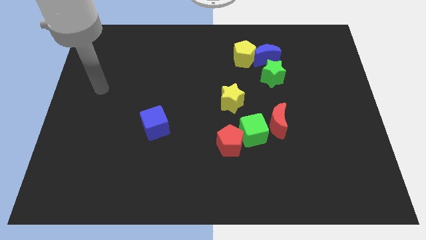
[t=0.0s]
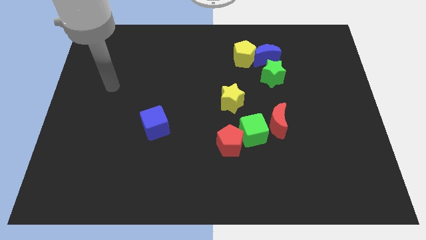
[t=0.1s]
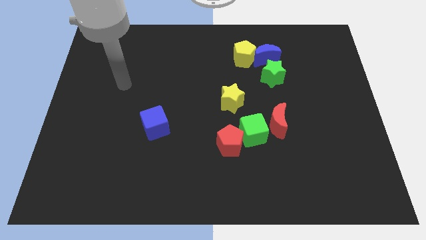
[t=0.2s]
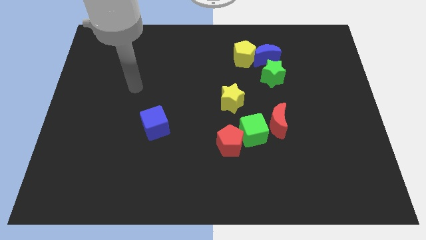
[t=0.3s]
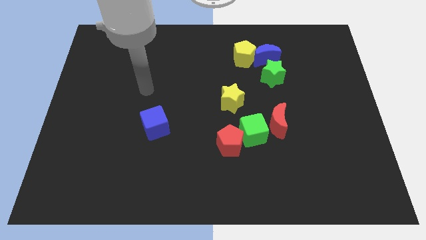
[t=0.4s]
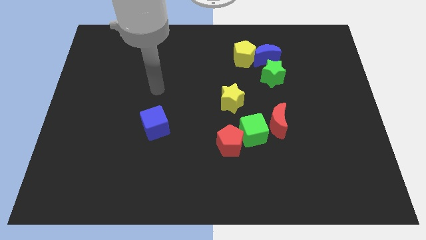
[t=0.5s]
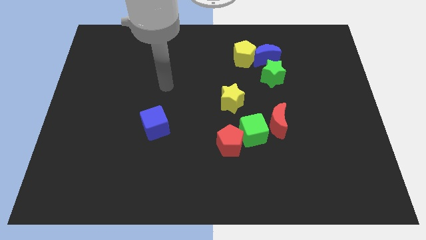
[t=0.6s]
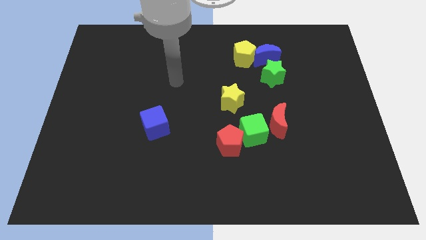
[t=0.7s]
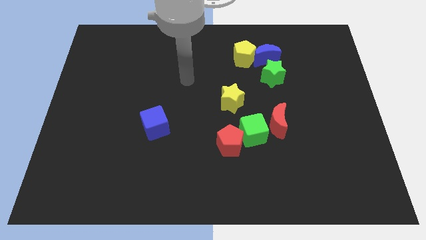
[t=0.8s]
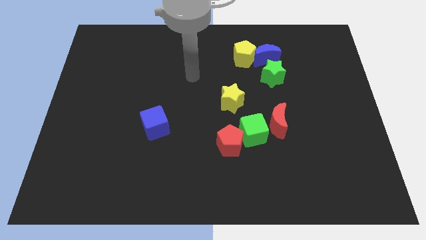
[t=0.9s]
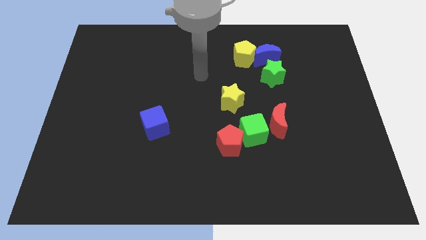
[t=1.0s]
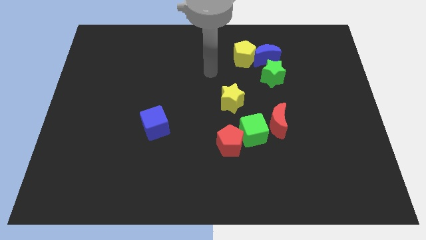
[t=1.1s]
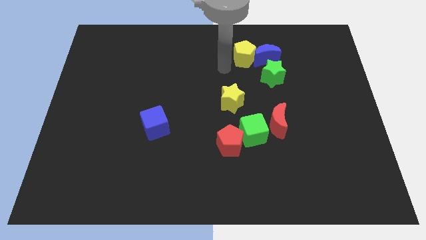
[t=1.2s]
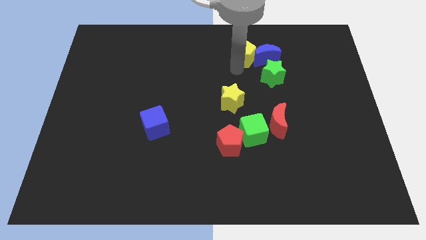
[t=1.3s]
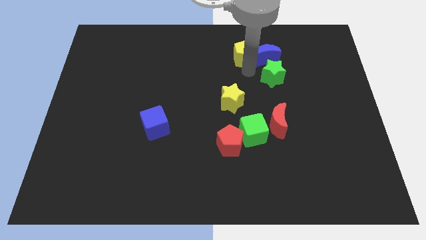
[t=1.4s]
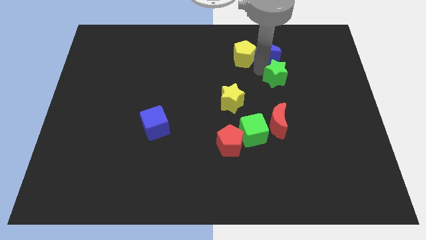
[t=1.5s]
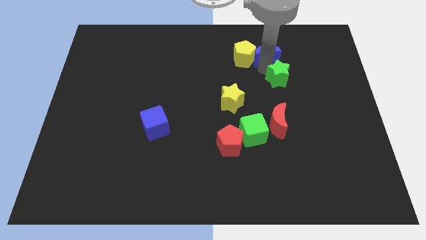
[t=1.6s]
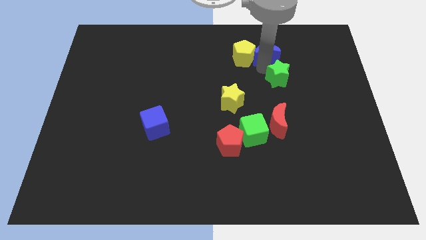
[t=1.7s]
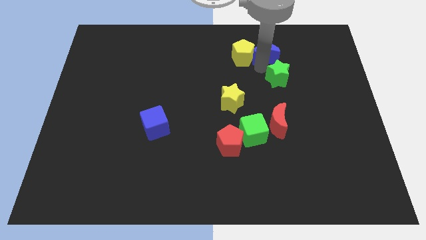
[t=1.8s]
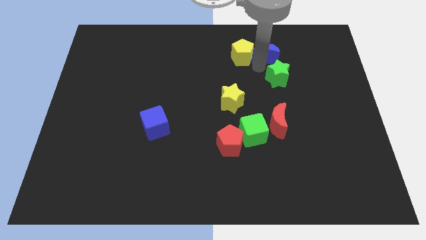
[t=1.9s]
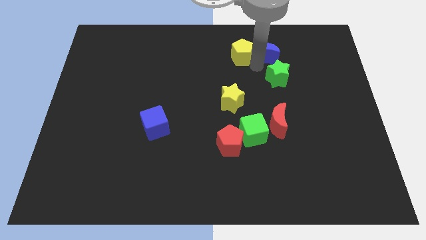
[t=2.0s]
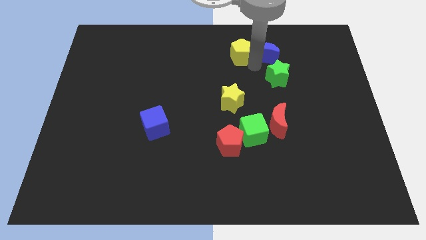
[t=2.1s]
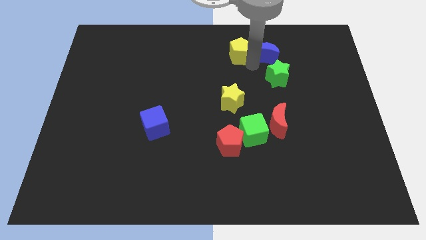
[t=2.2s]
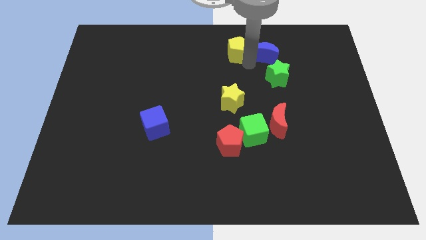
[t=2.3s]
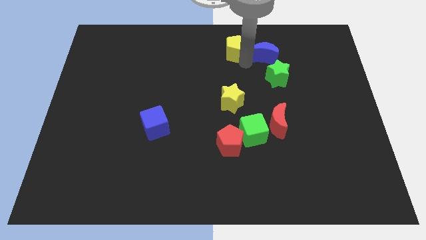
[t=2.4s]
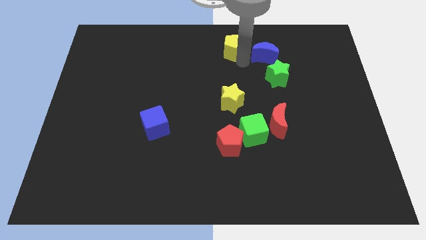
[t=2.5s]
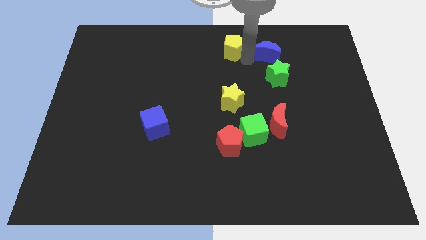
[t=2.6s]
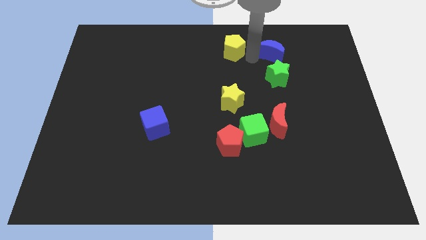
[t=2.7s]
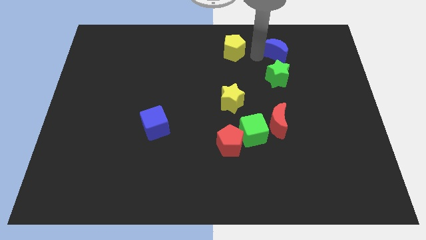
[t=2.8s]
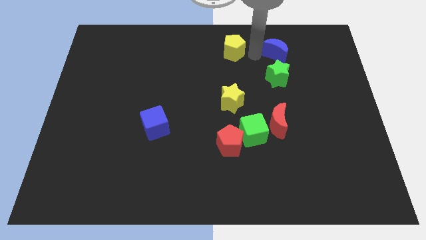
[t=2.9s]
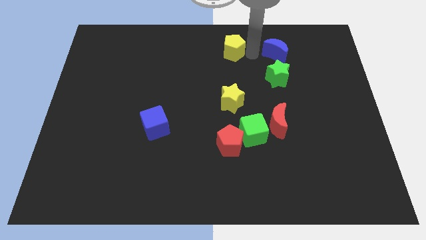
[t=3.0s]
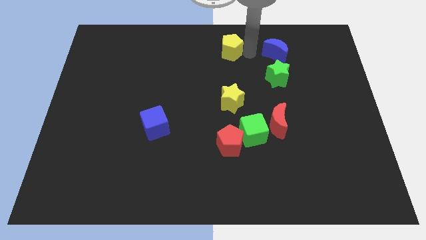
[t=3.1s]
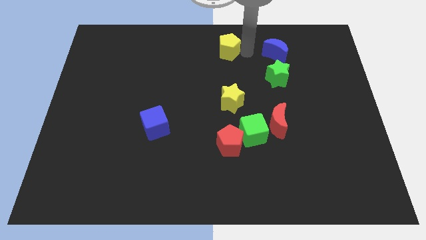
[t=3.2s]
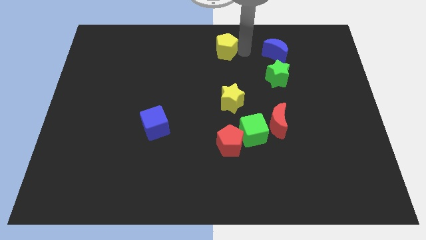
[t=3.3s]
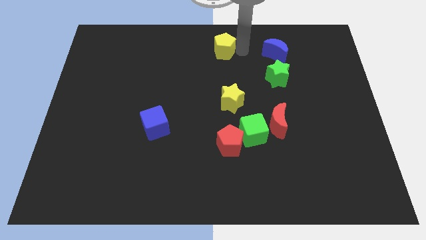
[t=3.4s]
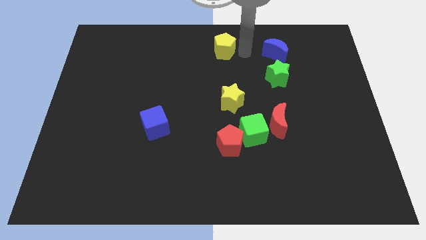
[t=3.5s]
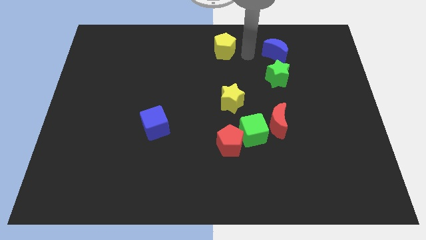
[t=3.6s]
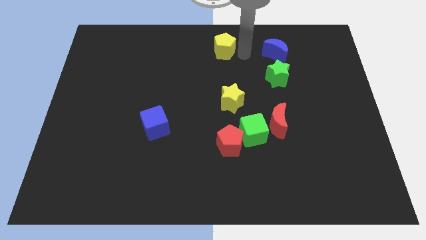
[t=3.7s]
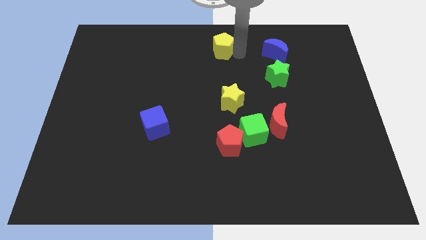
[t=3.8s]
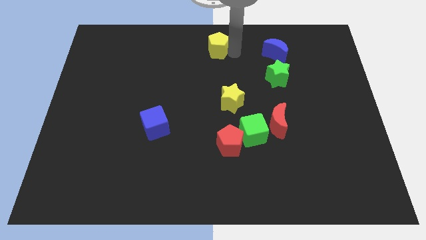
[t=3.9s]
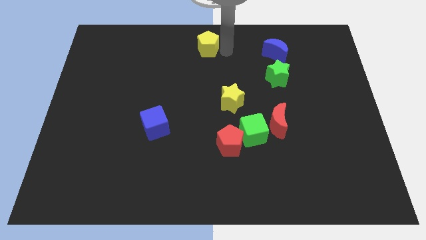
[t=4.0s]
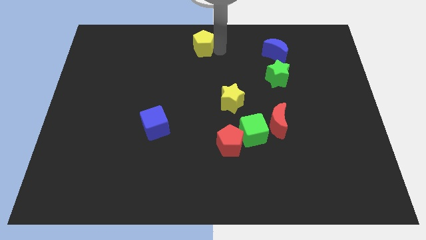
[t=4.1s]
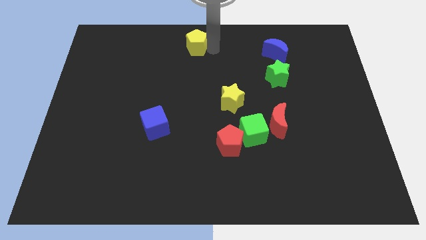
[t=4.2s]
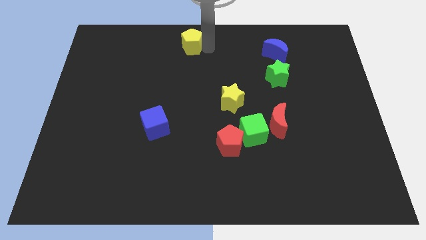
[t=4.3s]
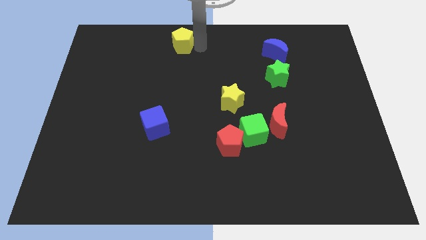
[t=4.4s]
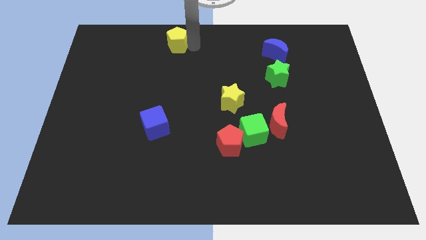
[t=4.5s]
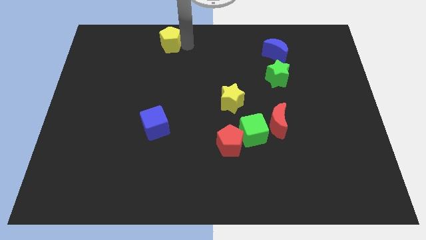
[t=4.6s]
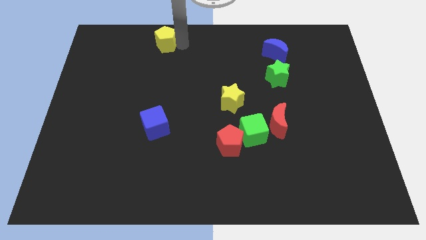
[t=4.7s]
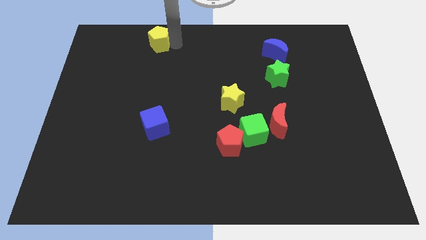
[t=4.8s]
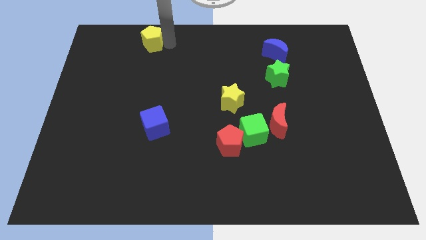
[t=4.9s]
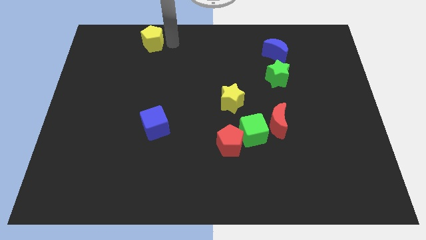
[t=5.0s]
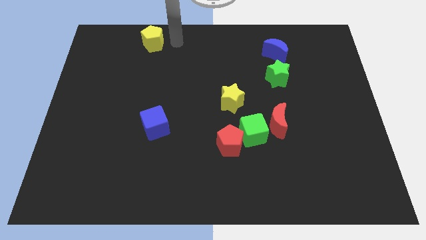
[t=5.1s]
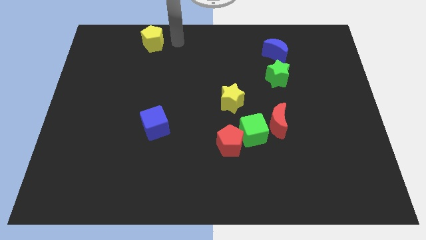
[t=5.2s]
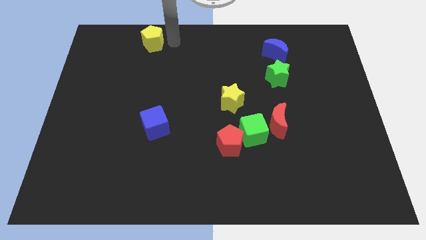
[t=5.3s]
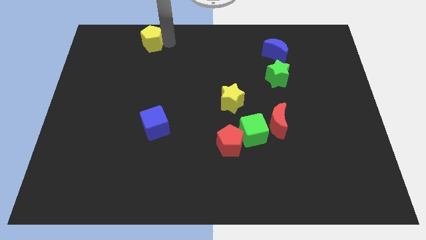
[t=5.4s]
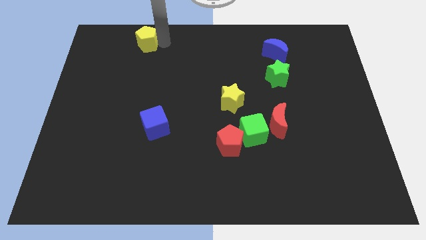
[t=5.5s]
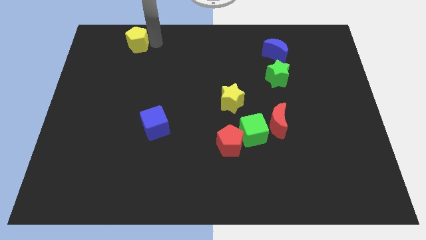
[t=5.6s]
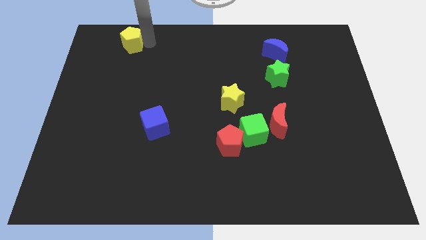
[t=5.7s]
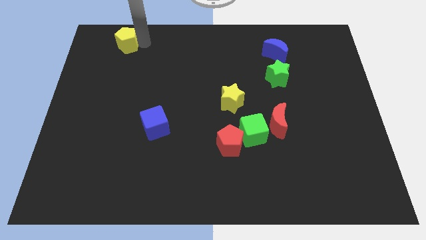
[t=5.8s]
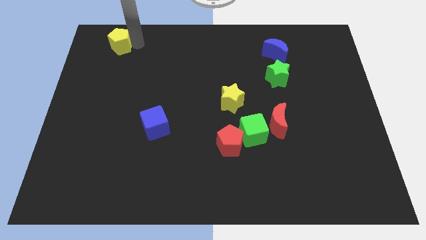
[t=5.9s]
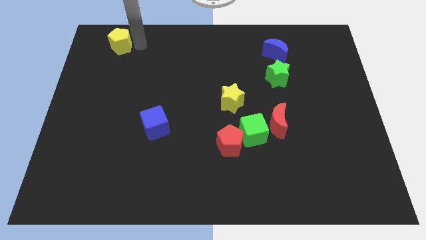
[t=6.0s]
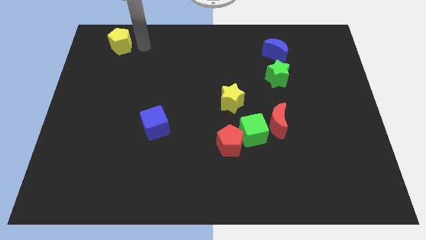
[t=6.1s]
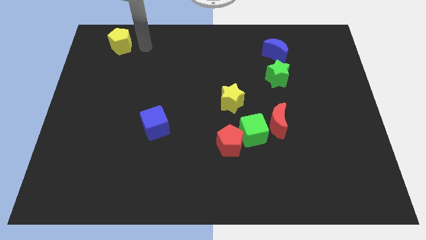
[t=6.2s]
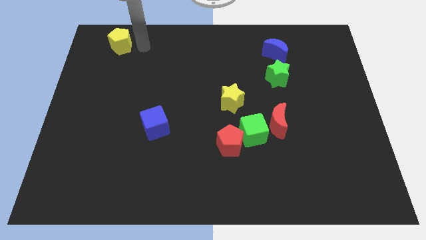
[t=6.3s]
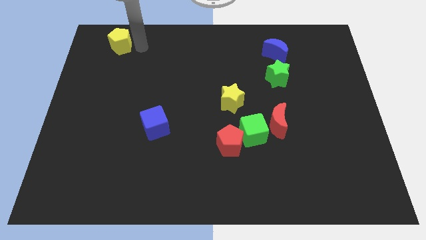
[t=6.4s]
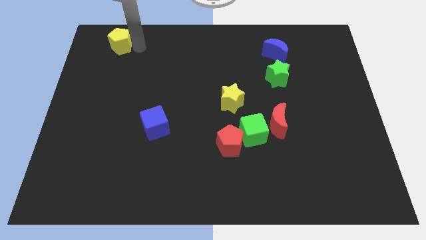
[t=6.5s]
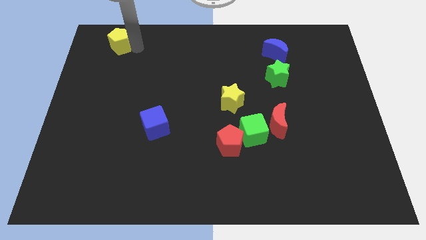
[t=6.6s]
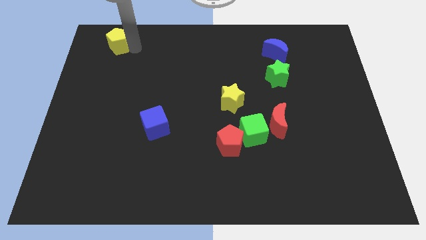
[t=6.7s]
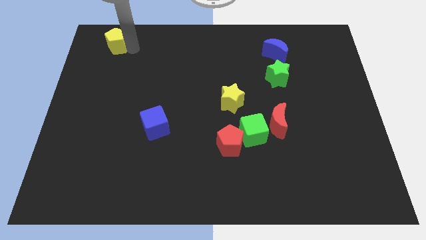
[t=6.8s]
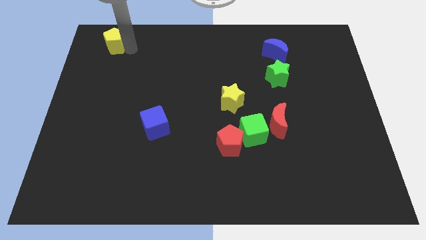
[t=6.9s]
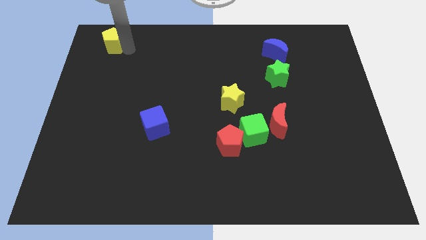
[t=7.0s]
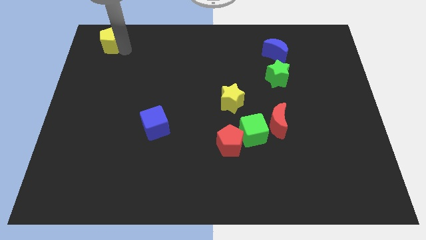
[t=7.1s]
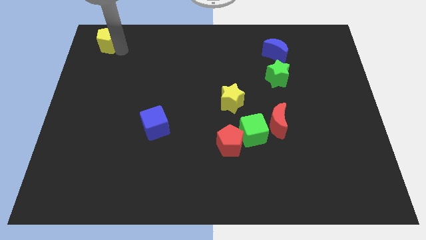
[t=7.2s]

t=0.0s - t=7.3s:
move the yellow pentagon to the upper left corner
